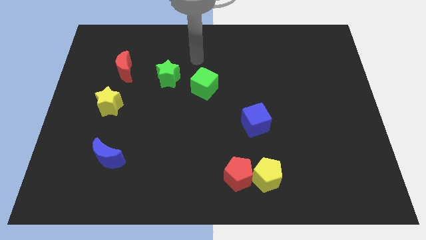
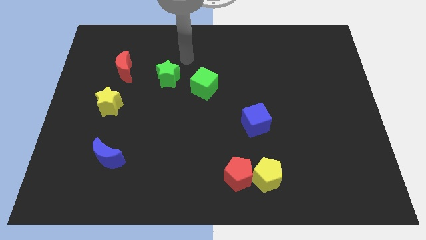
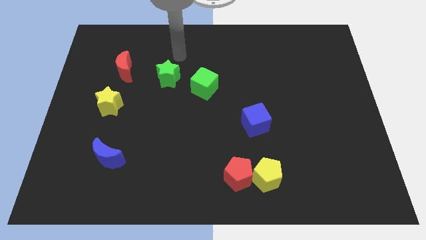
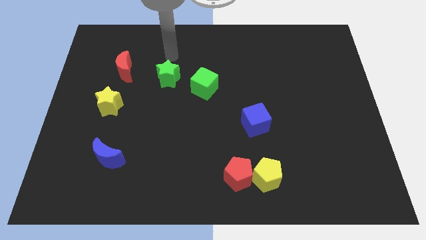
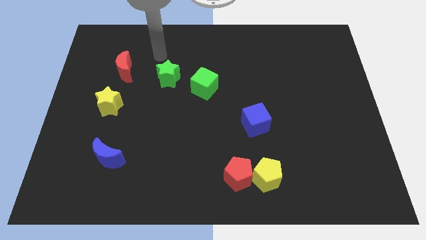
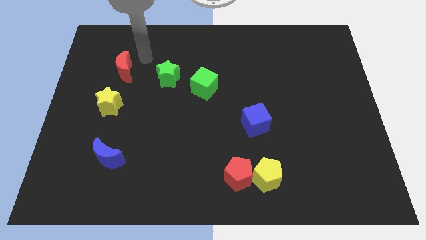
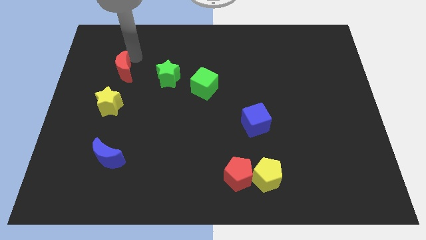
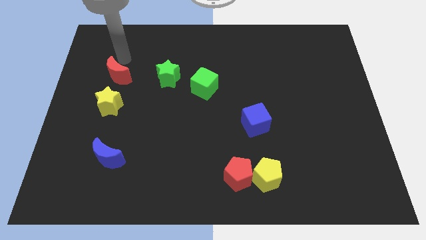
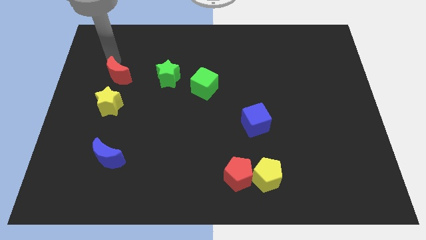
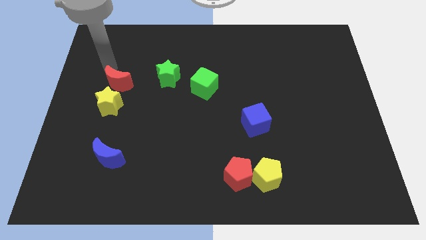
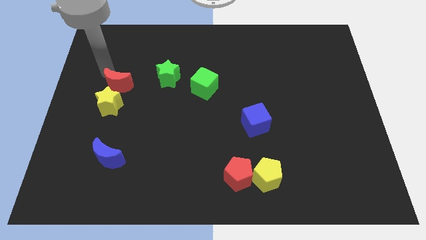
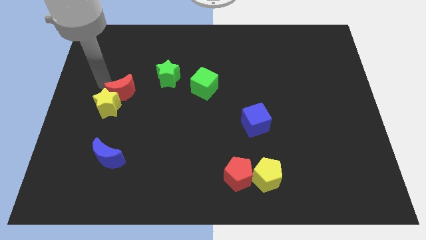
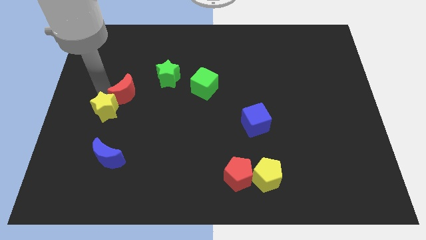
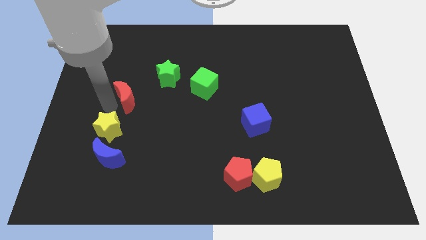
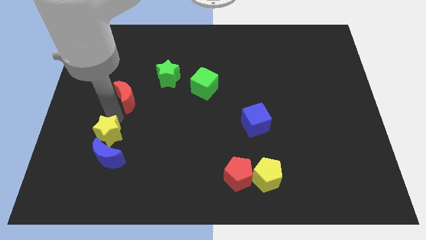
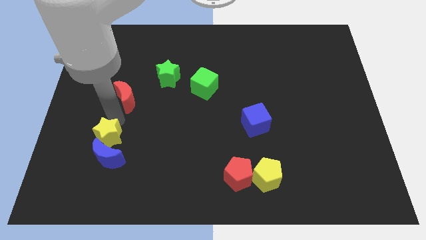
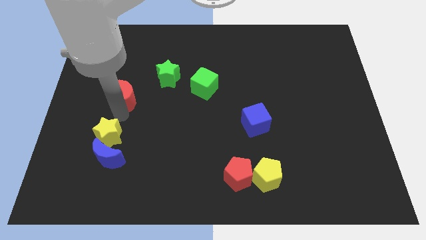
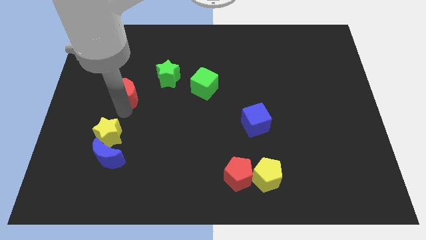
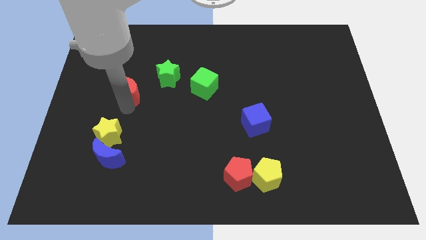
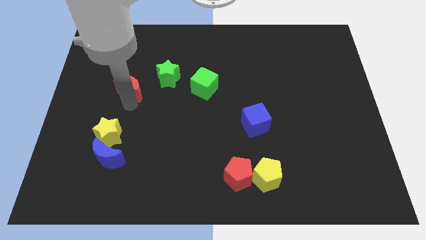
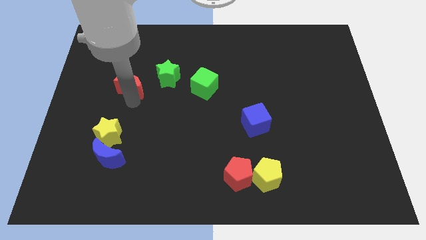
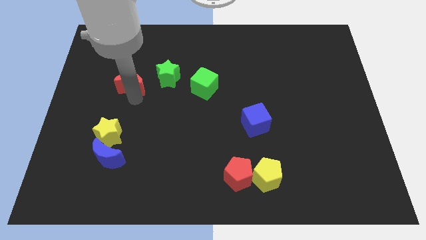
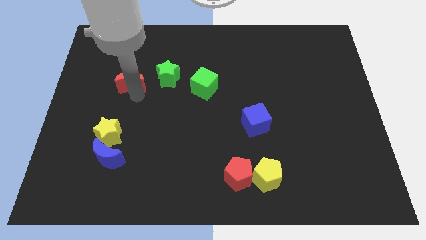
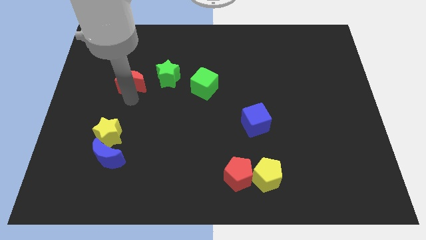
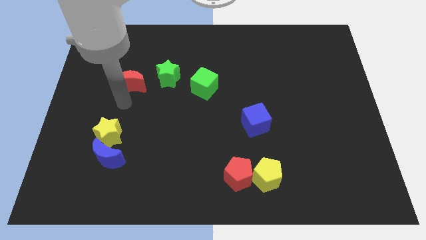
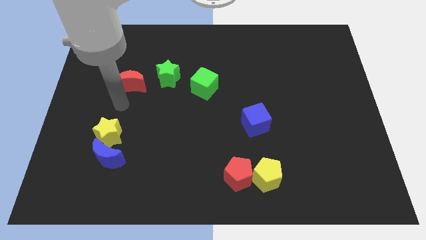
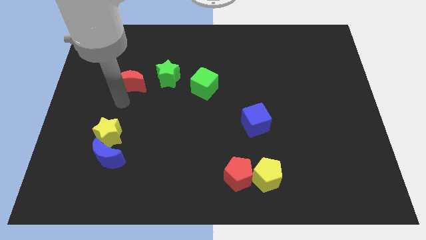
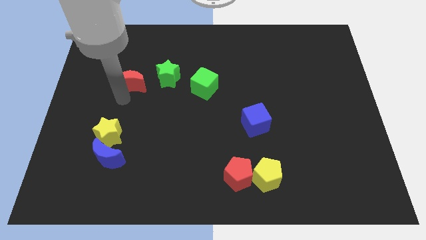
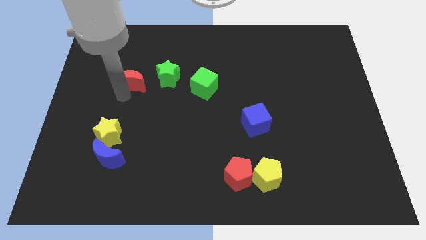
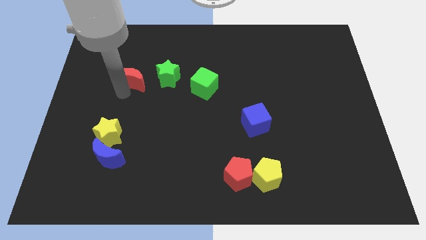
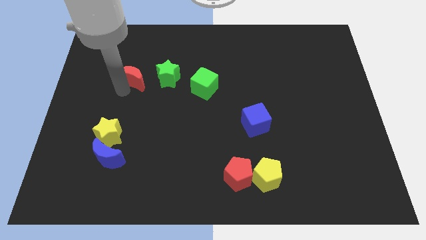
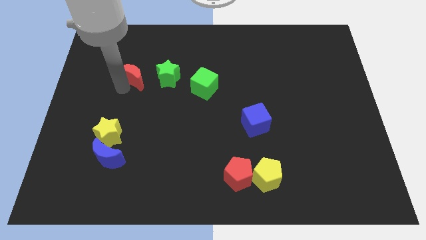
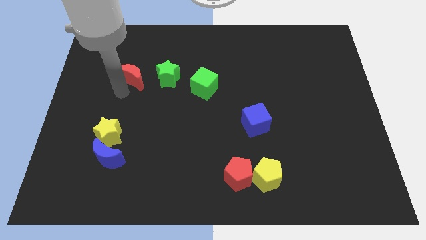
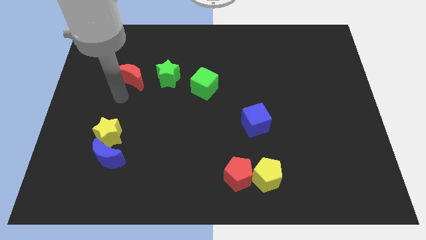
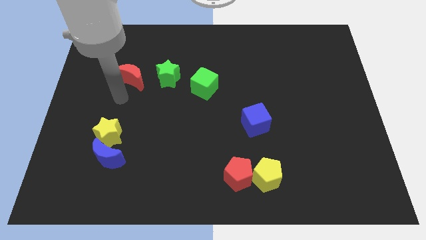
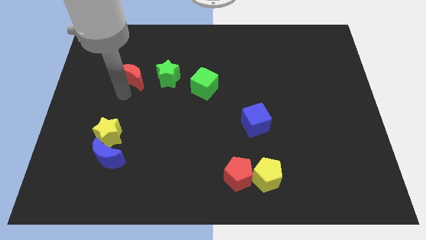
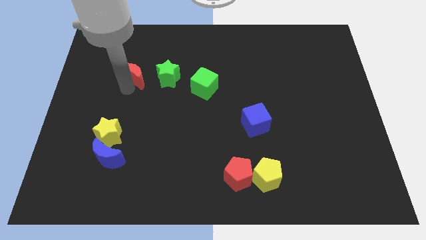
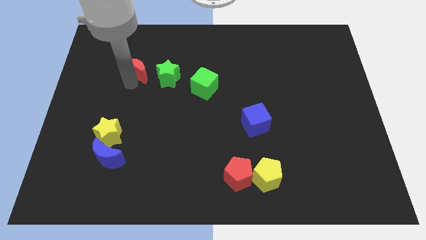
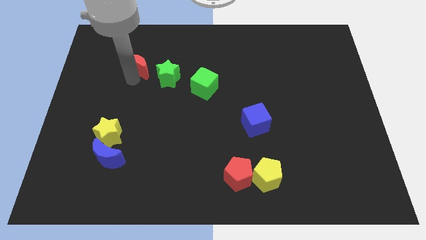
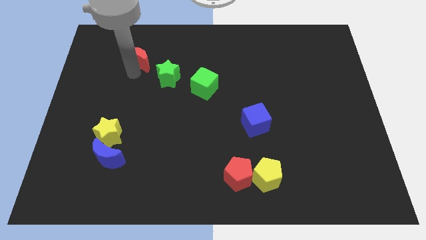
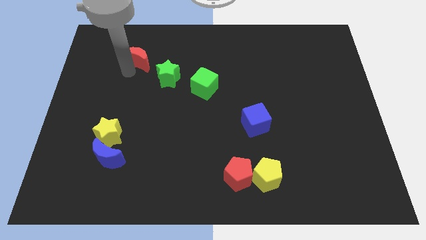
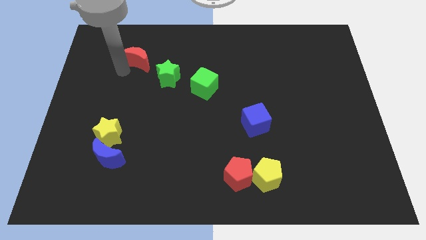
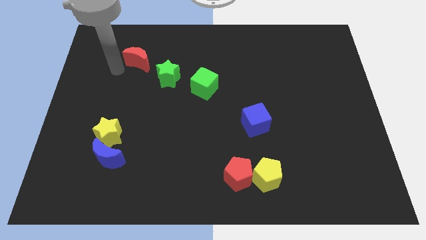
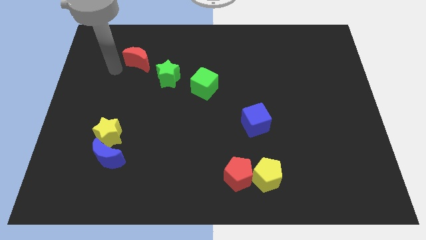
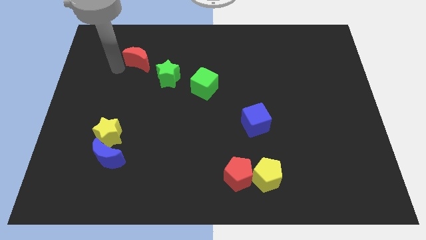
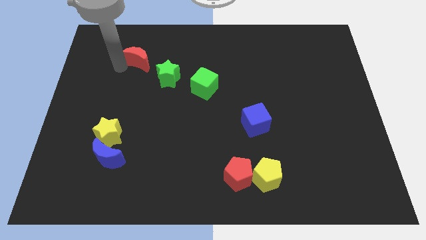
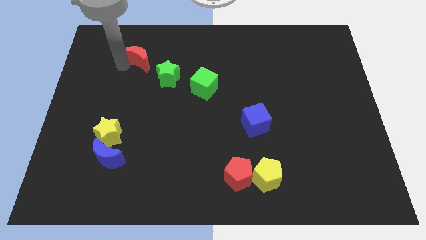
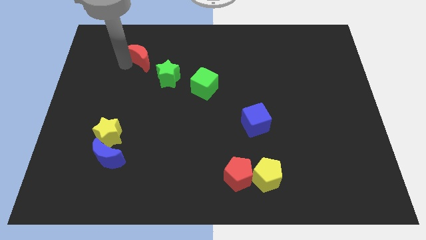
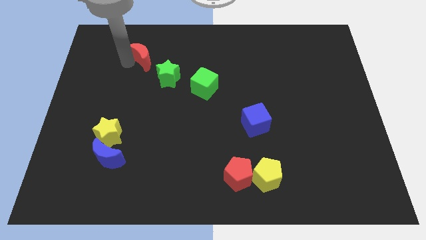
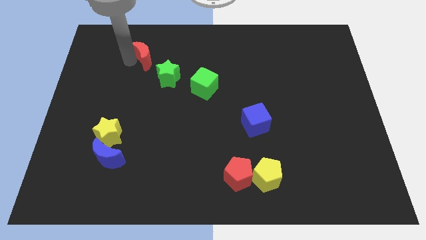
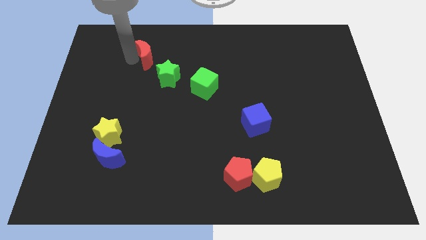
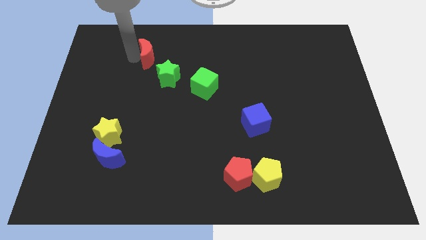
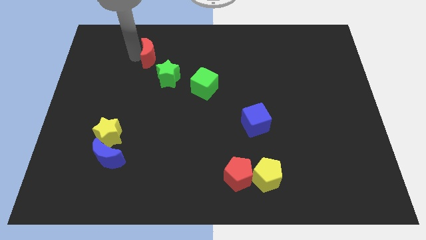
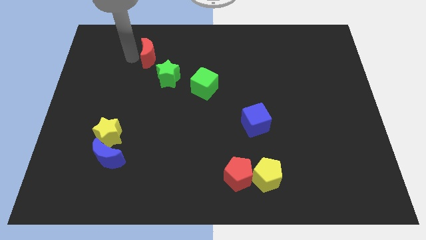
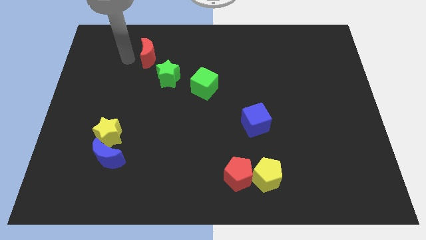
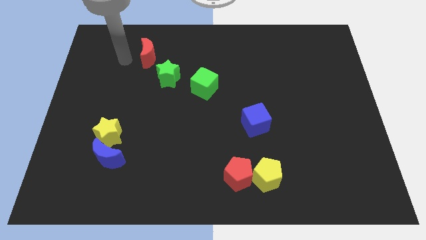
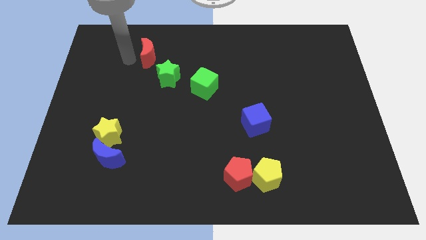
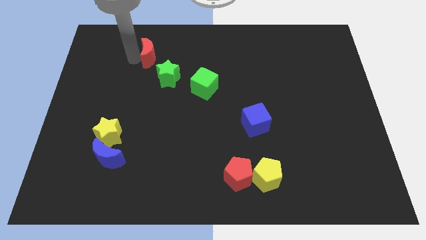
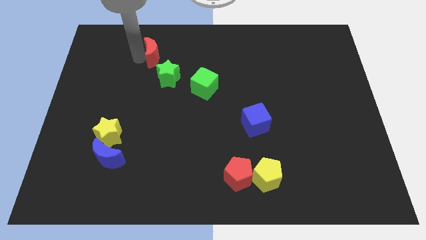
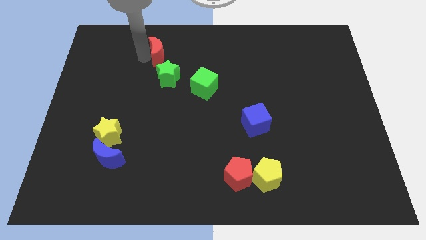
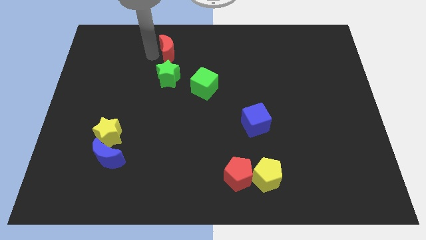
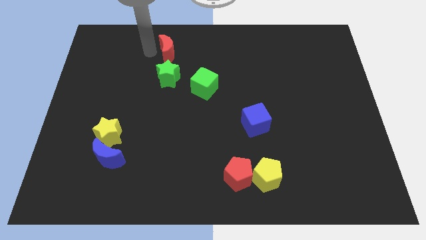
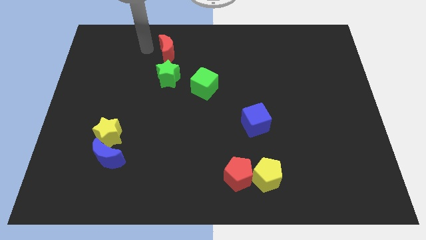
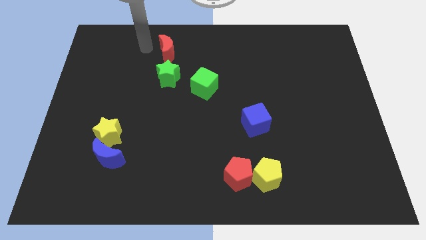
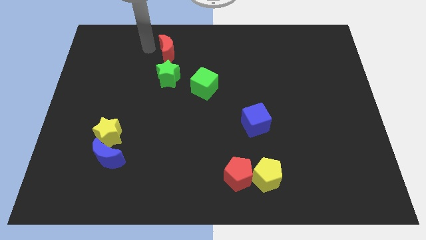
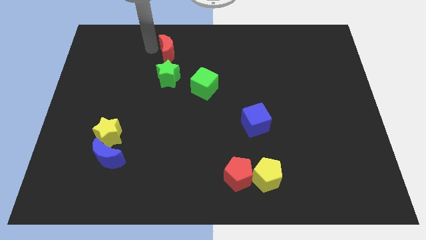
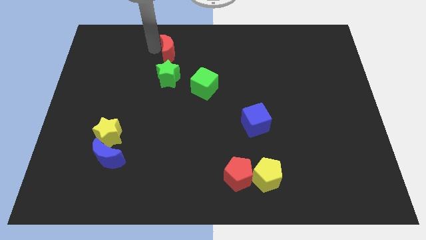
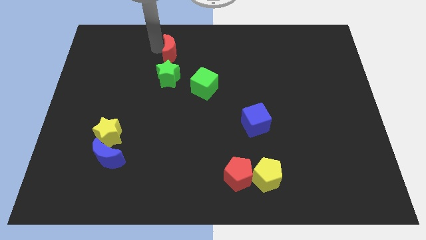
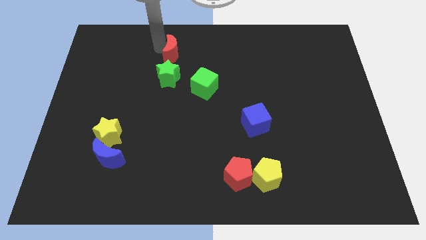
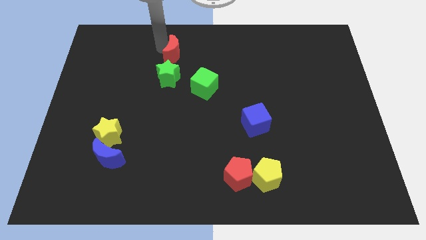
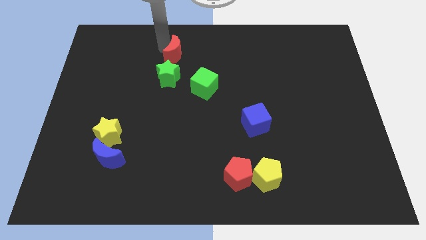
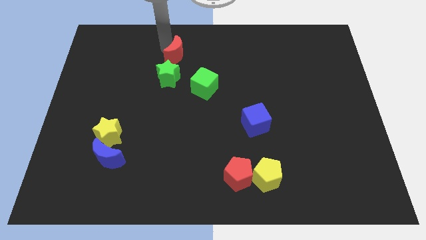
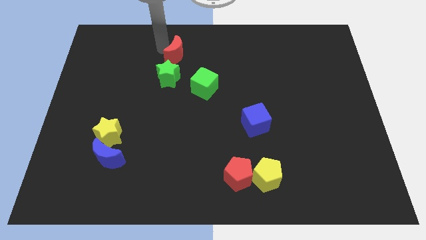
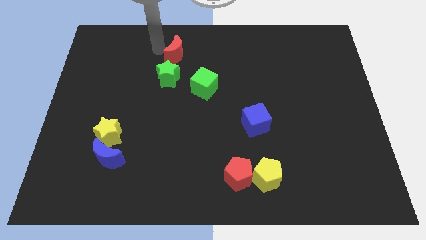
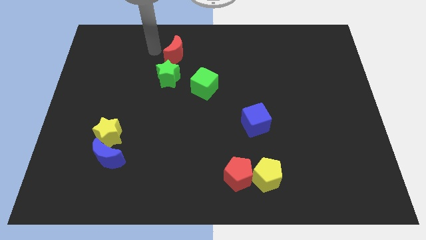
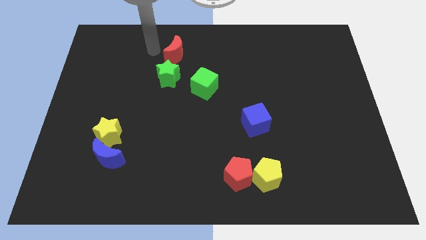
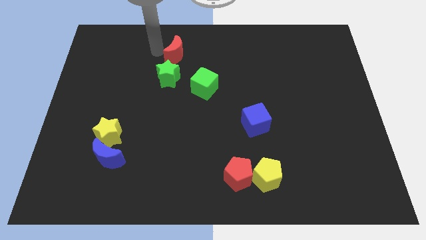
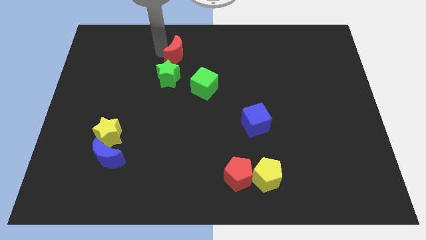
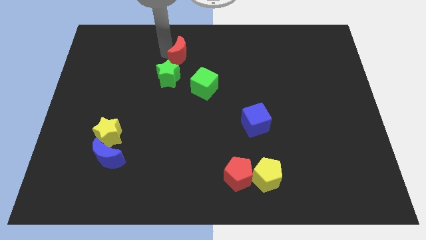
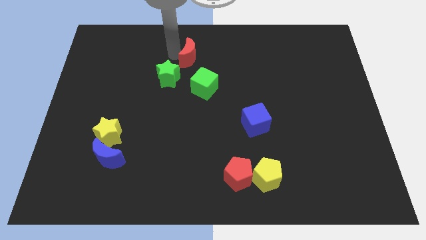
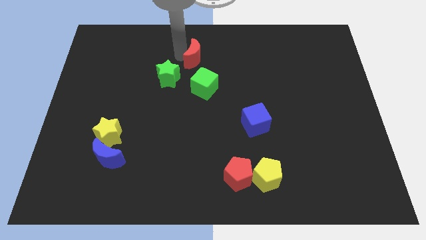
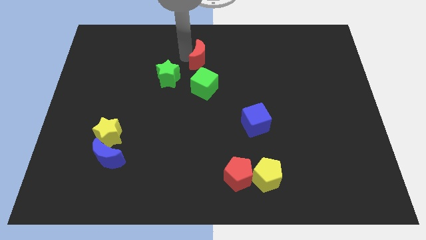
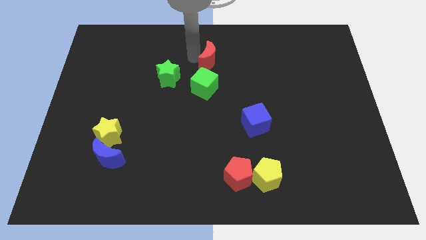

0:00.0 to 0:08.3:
push the red moon right

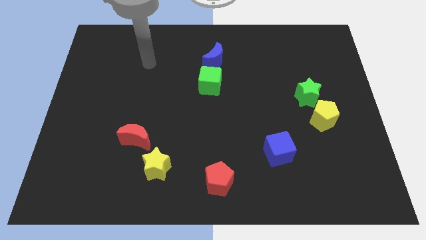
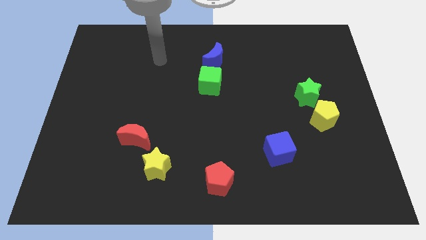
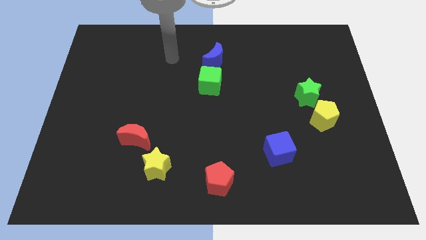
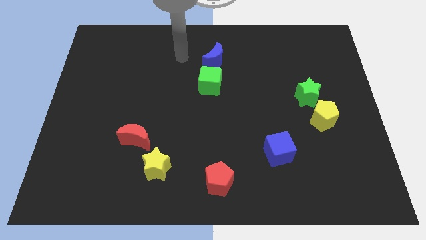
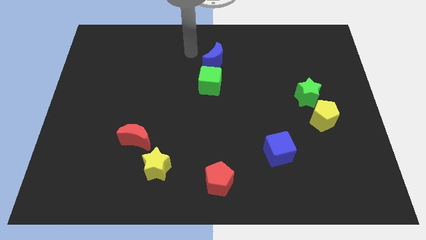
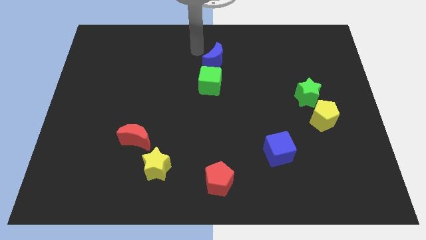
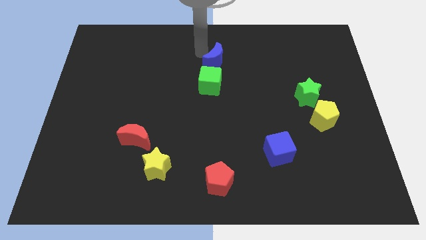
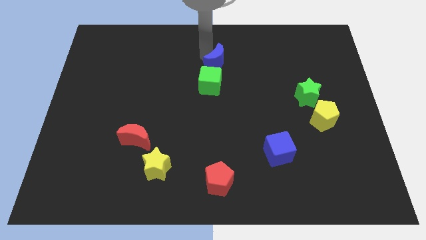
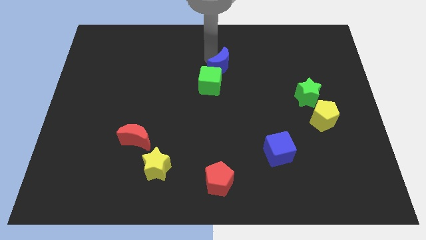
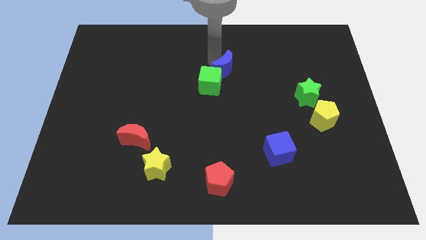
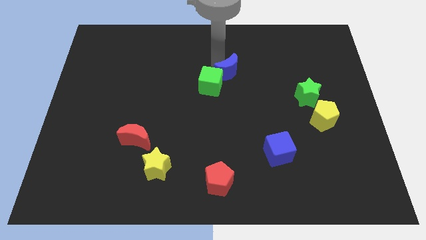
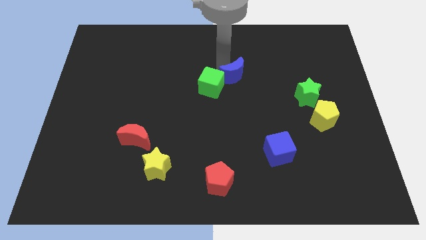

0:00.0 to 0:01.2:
push the blue moon somewhat down and then to the right
